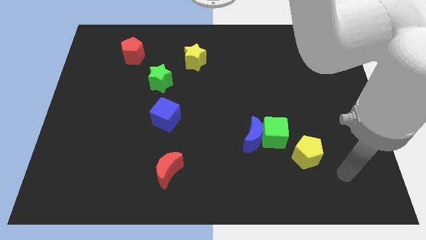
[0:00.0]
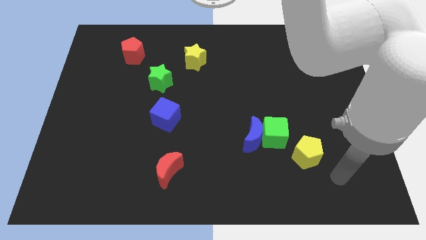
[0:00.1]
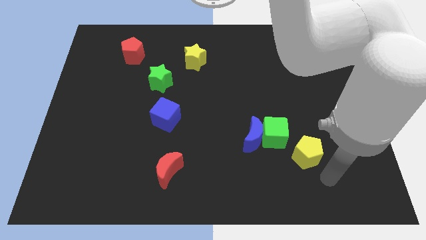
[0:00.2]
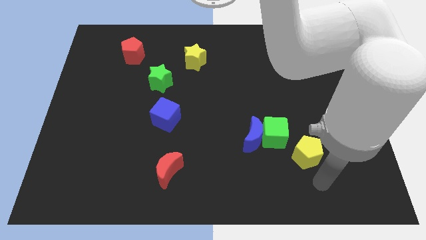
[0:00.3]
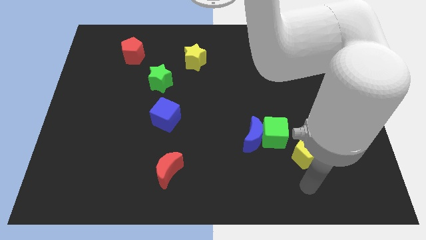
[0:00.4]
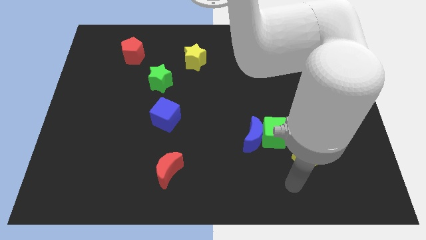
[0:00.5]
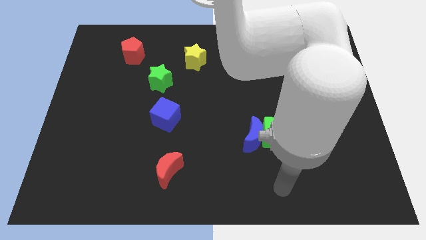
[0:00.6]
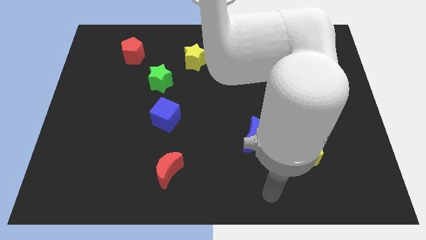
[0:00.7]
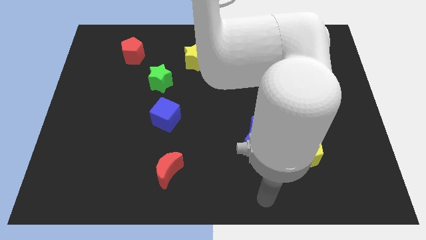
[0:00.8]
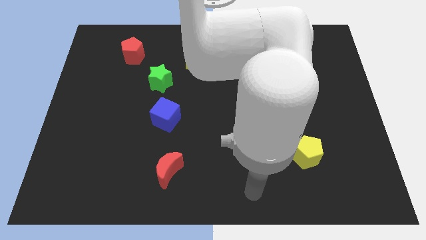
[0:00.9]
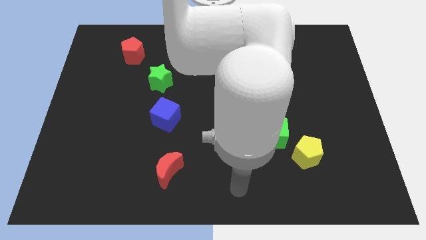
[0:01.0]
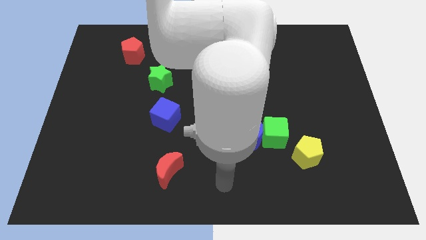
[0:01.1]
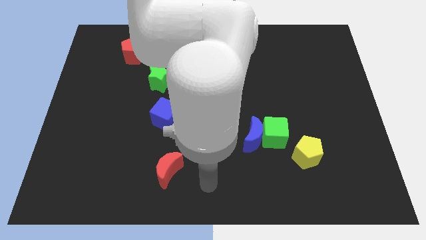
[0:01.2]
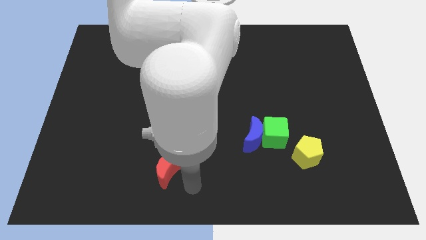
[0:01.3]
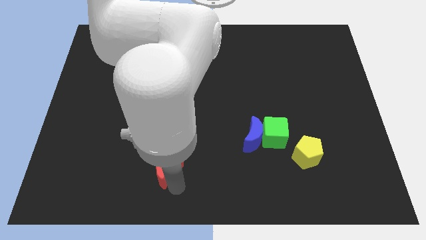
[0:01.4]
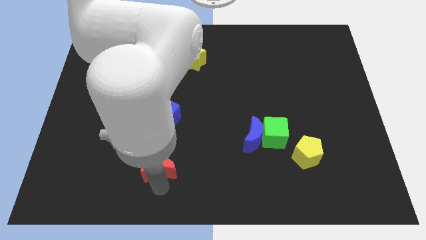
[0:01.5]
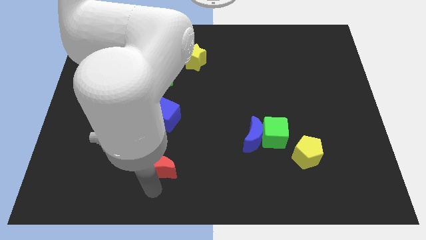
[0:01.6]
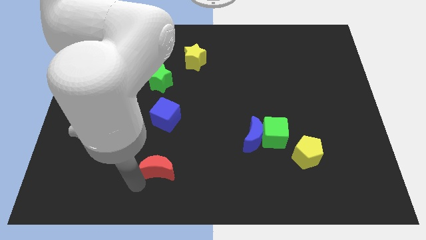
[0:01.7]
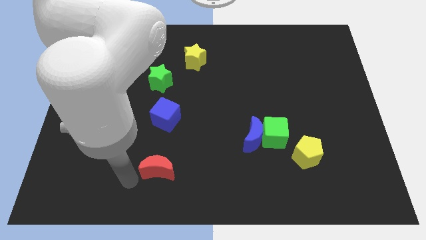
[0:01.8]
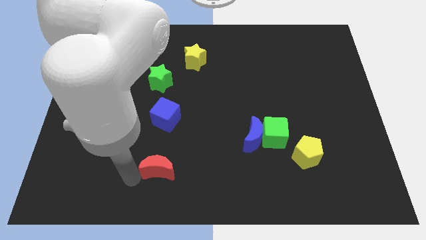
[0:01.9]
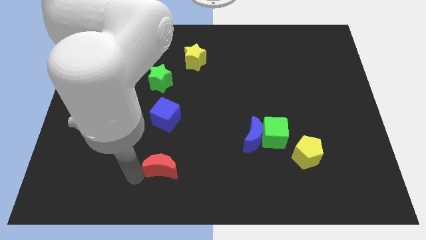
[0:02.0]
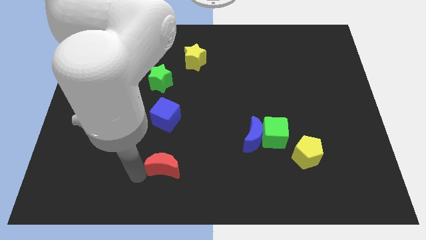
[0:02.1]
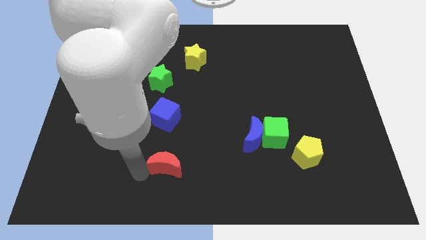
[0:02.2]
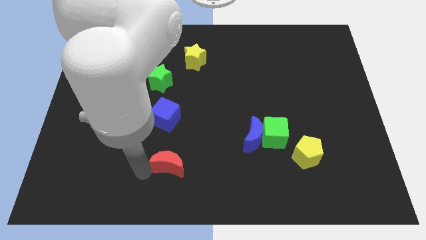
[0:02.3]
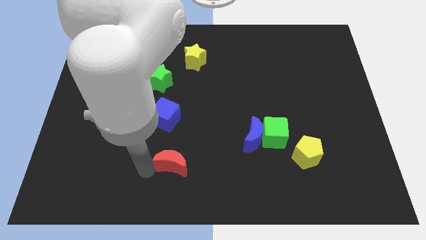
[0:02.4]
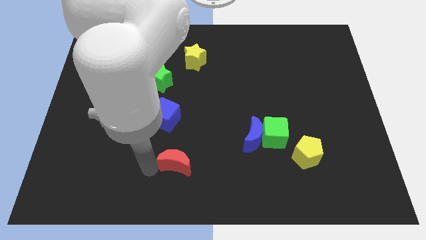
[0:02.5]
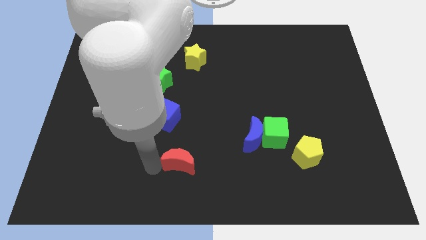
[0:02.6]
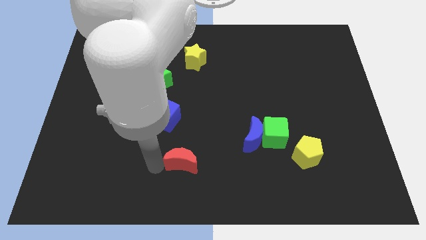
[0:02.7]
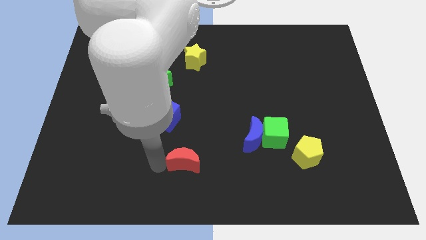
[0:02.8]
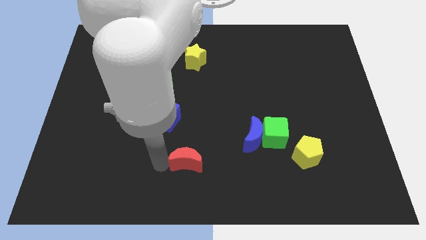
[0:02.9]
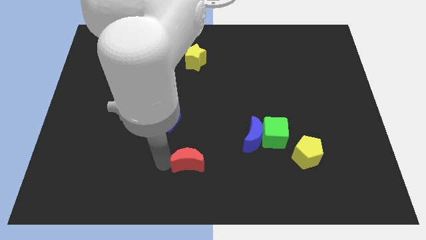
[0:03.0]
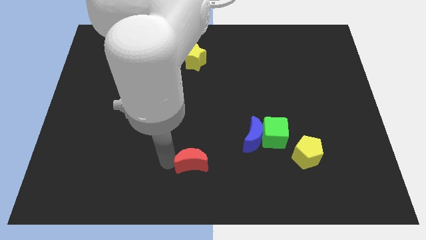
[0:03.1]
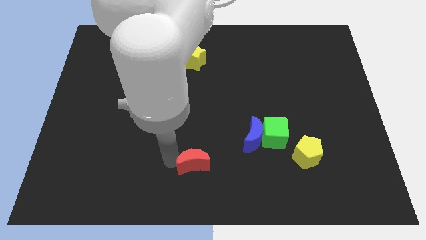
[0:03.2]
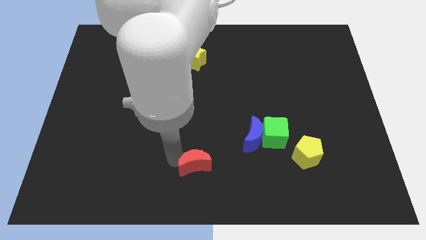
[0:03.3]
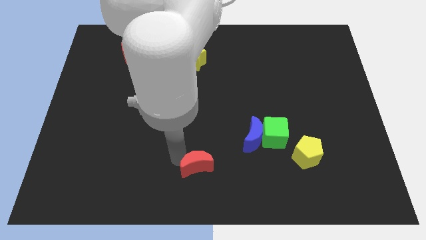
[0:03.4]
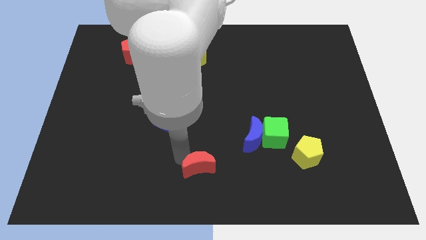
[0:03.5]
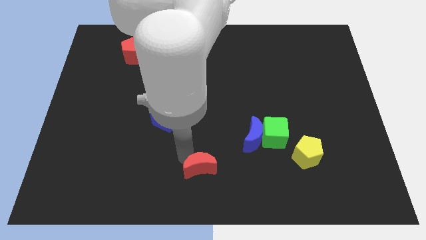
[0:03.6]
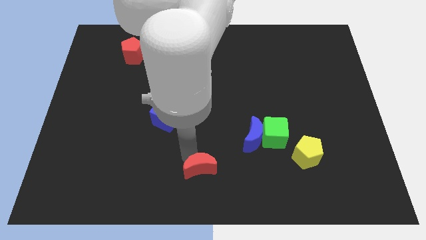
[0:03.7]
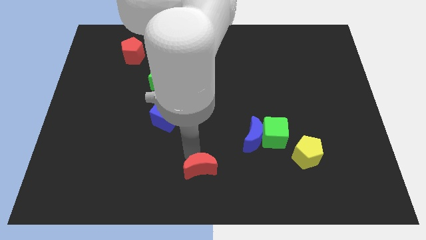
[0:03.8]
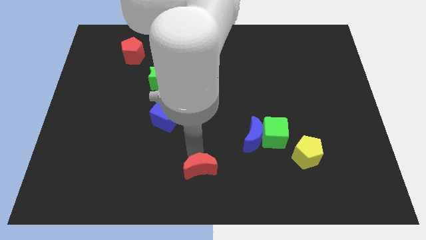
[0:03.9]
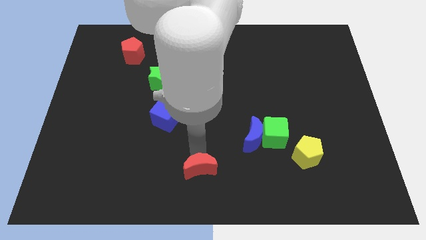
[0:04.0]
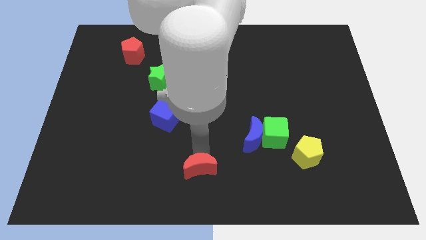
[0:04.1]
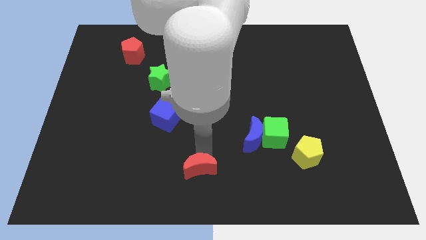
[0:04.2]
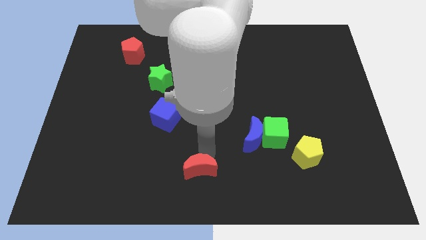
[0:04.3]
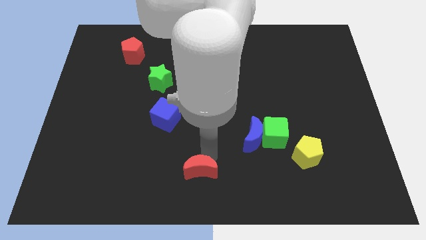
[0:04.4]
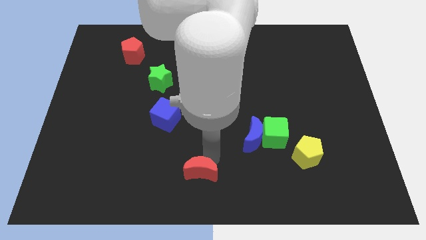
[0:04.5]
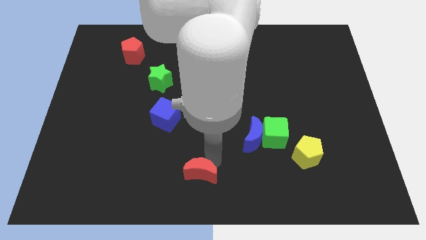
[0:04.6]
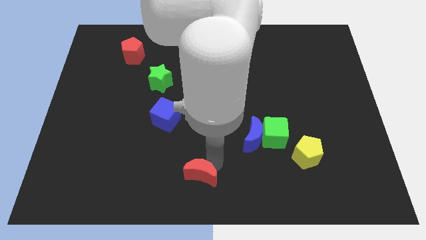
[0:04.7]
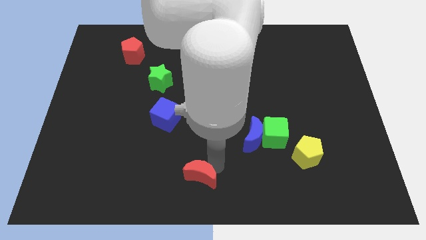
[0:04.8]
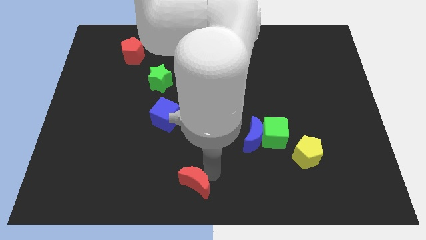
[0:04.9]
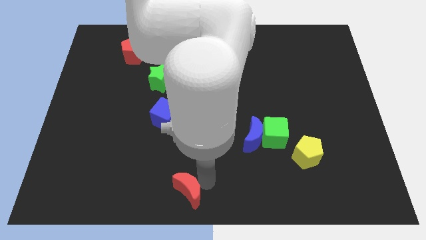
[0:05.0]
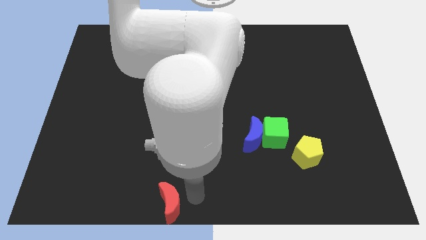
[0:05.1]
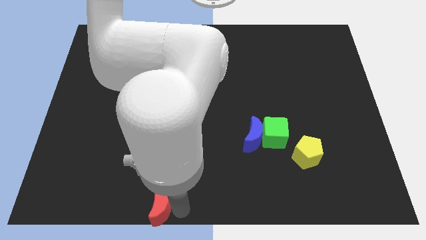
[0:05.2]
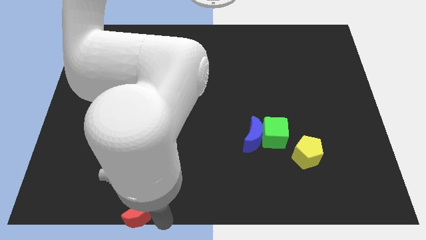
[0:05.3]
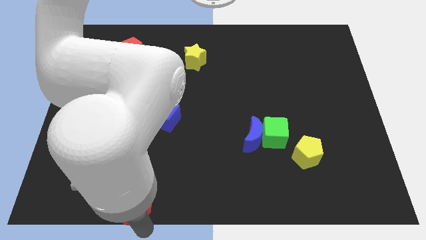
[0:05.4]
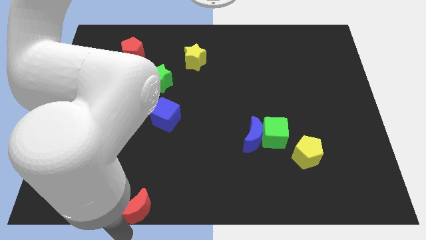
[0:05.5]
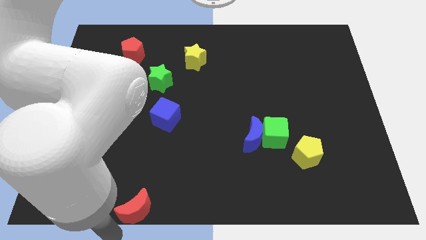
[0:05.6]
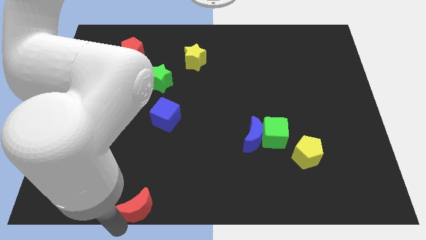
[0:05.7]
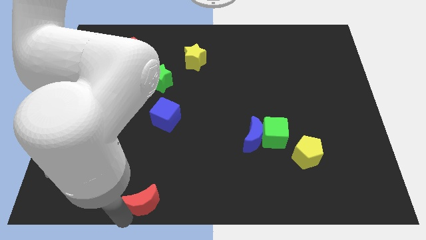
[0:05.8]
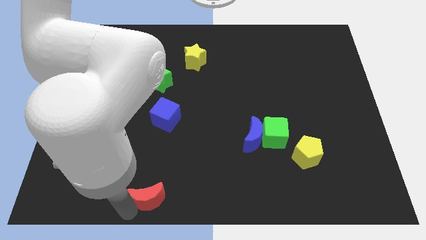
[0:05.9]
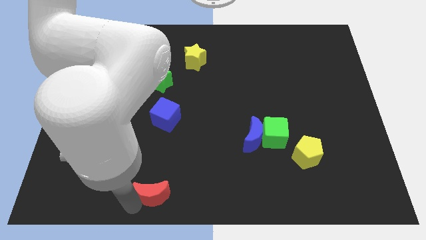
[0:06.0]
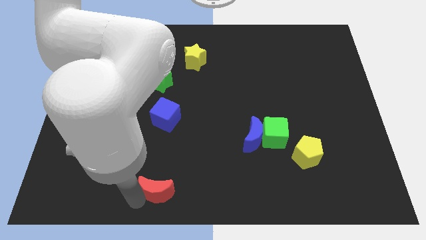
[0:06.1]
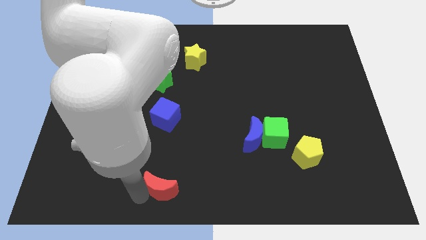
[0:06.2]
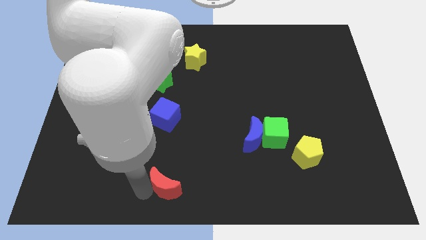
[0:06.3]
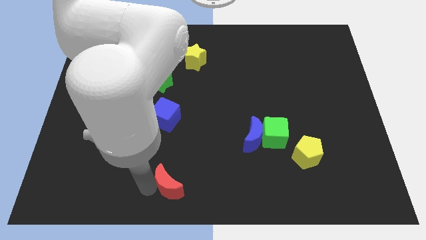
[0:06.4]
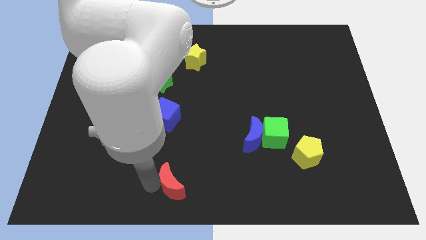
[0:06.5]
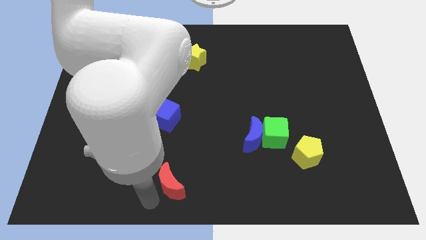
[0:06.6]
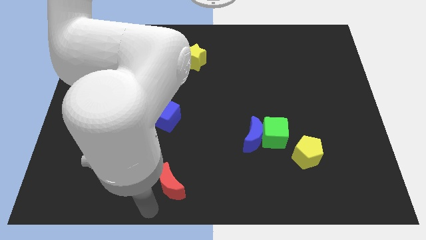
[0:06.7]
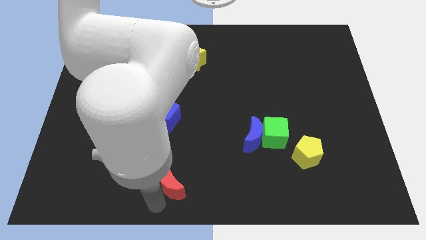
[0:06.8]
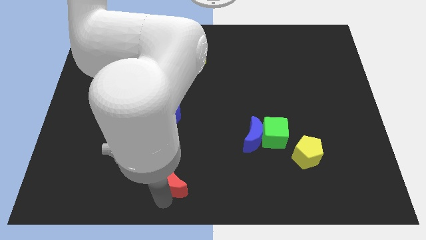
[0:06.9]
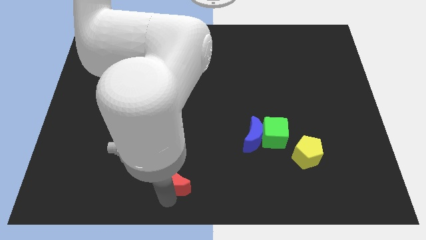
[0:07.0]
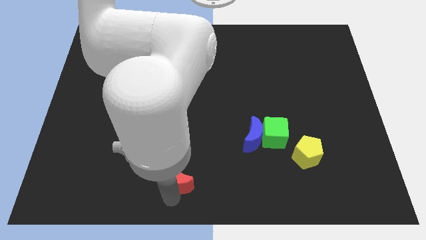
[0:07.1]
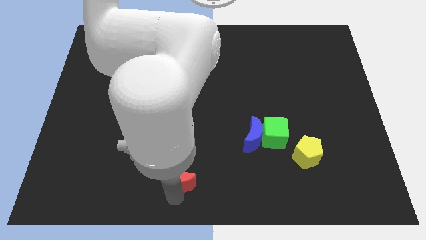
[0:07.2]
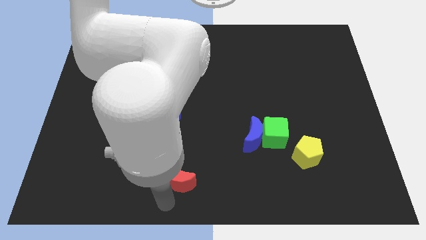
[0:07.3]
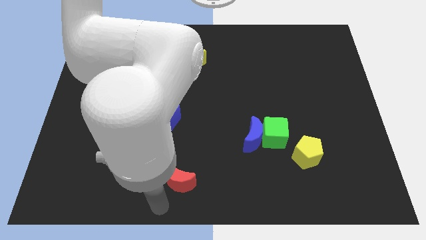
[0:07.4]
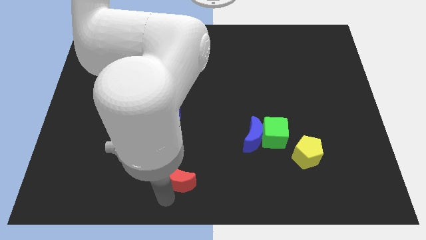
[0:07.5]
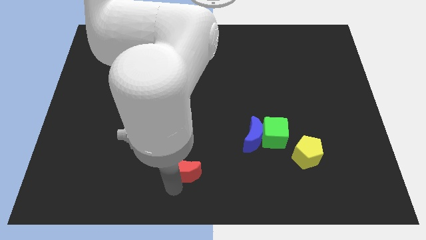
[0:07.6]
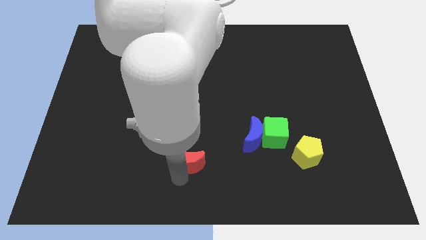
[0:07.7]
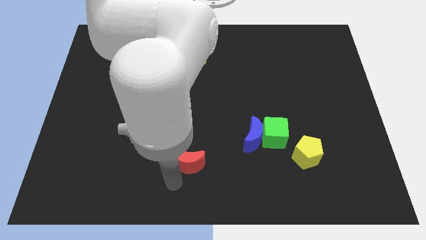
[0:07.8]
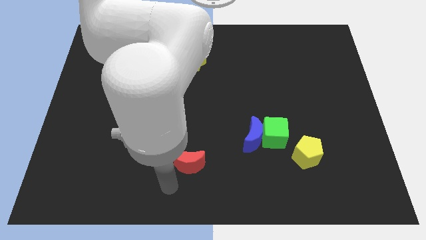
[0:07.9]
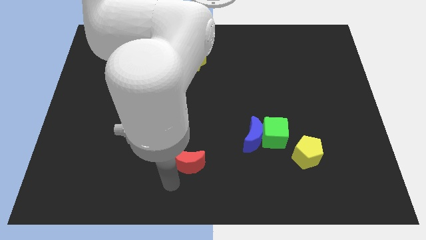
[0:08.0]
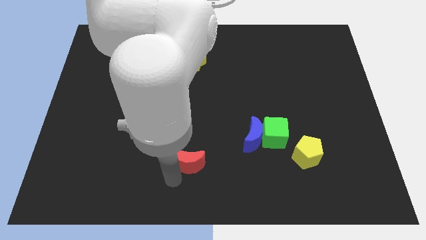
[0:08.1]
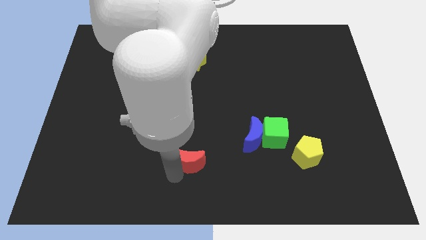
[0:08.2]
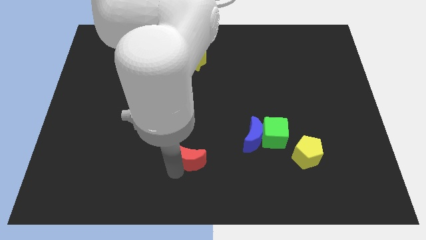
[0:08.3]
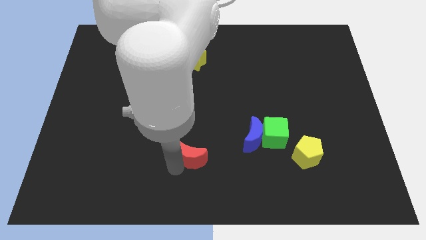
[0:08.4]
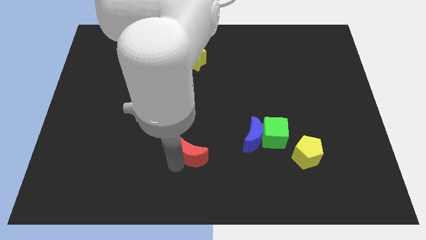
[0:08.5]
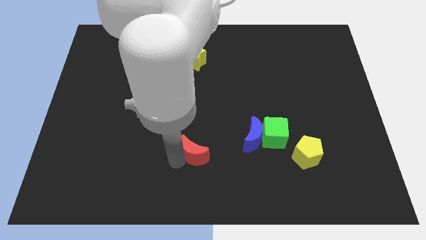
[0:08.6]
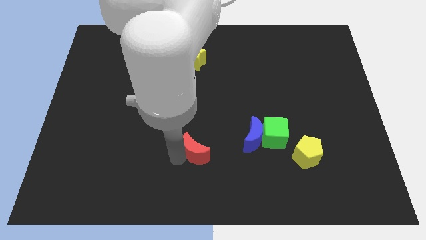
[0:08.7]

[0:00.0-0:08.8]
move the red moon up and to the right a little
